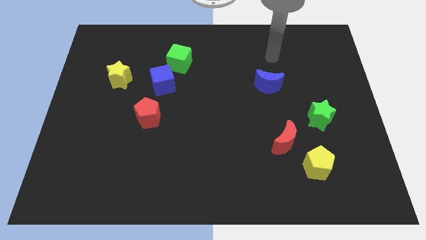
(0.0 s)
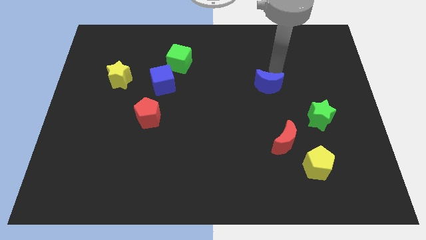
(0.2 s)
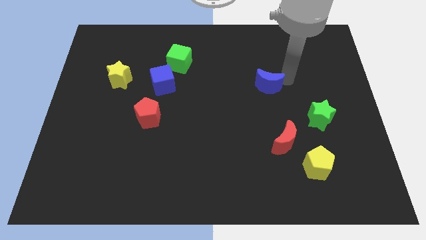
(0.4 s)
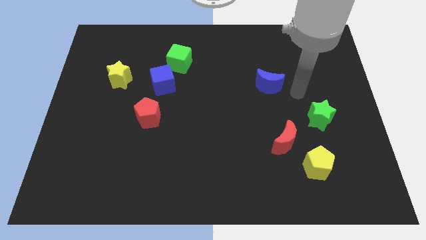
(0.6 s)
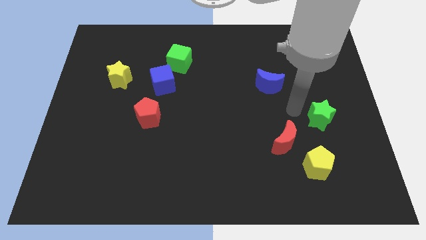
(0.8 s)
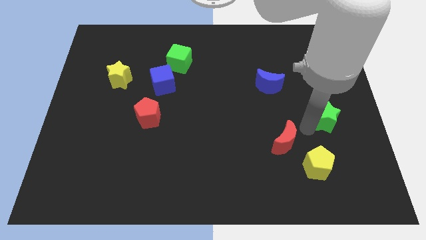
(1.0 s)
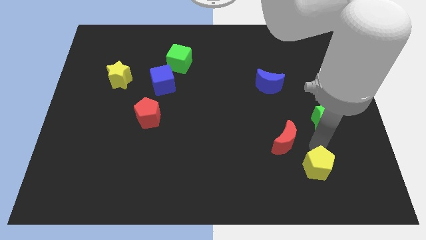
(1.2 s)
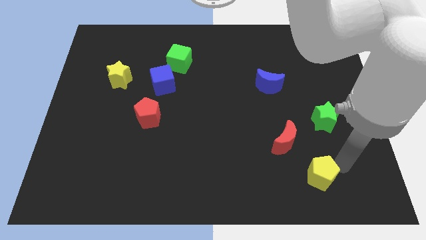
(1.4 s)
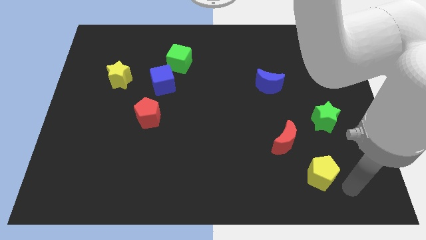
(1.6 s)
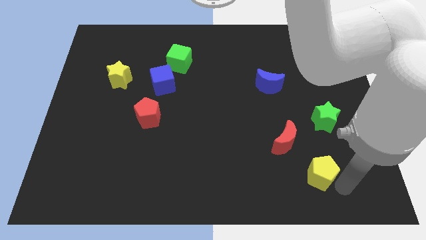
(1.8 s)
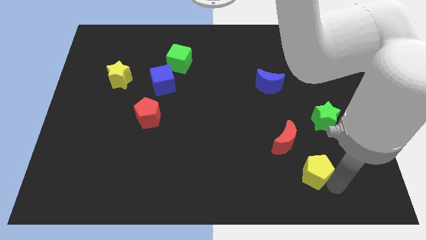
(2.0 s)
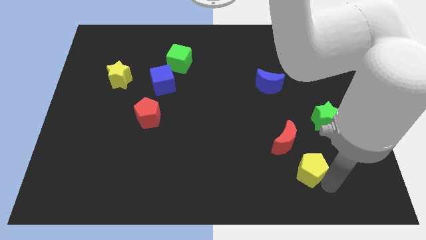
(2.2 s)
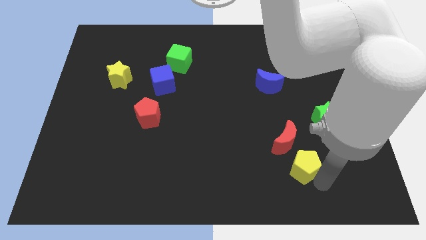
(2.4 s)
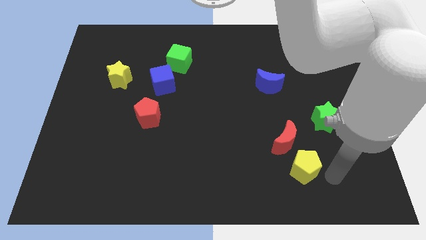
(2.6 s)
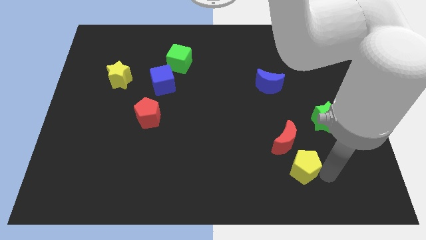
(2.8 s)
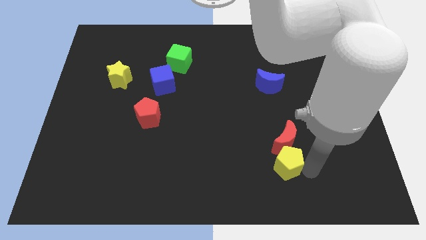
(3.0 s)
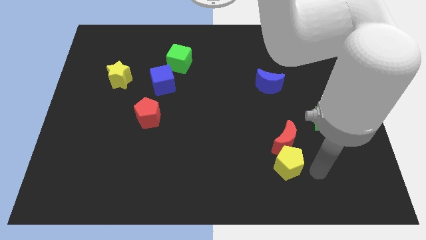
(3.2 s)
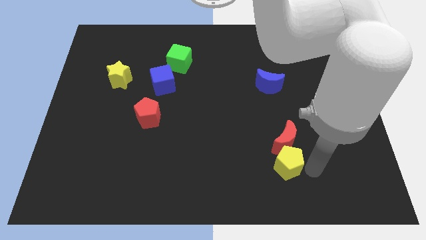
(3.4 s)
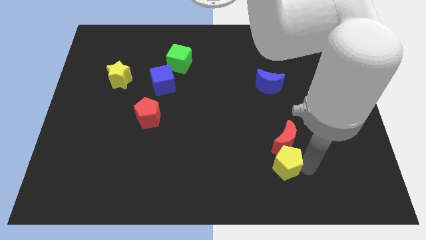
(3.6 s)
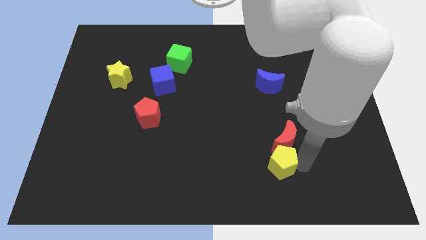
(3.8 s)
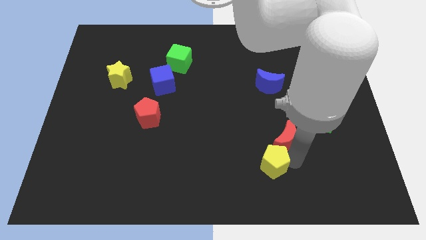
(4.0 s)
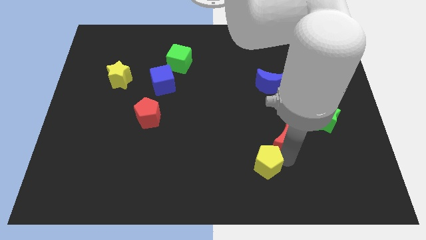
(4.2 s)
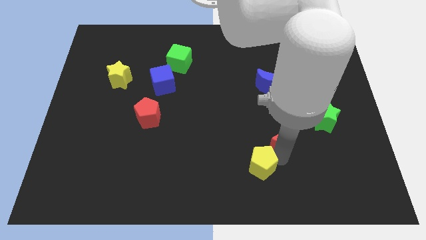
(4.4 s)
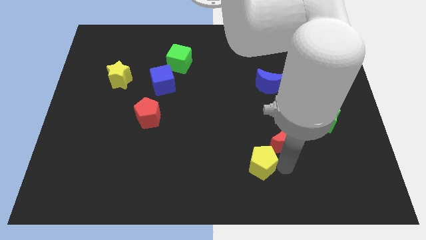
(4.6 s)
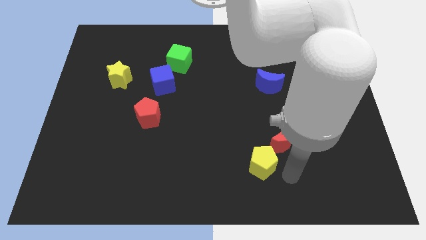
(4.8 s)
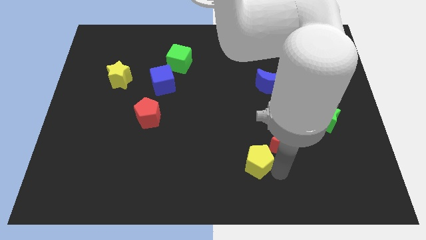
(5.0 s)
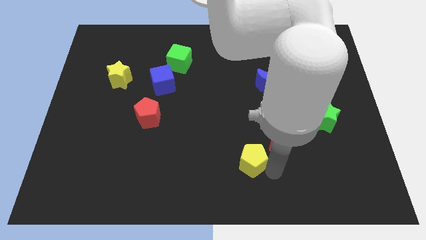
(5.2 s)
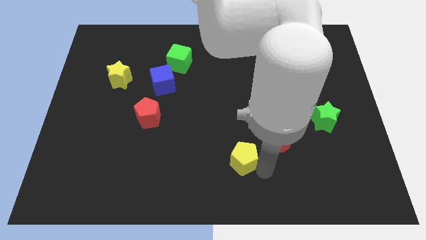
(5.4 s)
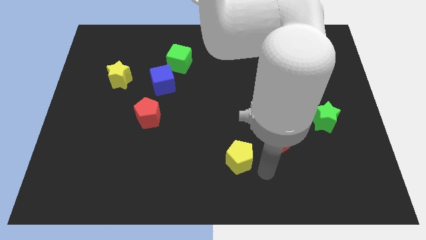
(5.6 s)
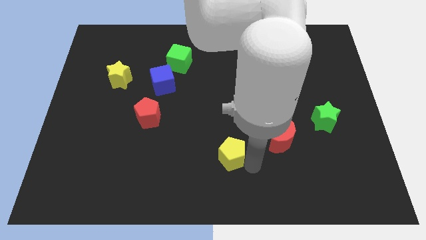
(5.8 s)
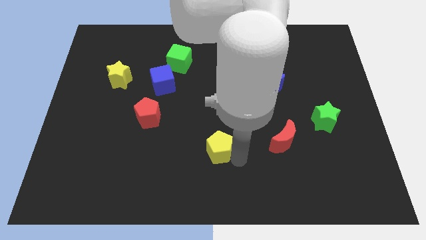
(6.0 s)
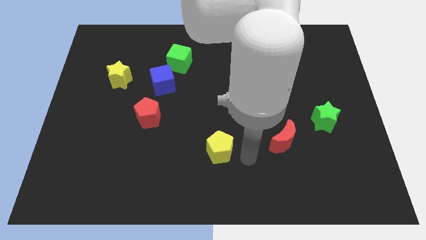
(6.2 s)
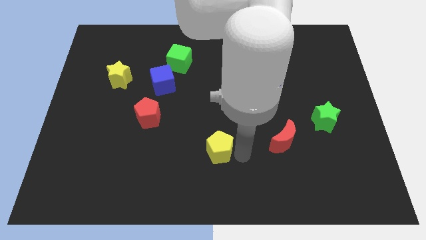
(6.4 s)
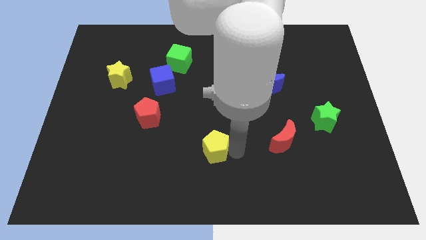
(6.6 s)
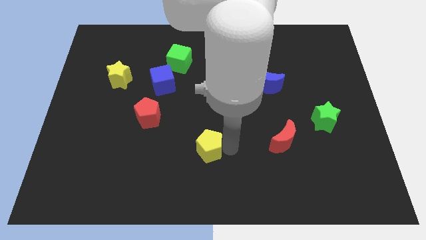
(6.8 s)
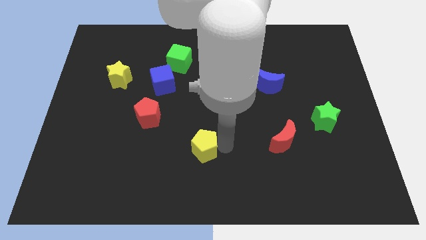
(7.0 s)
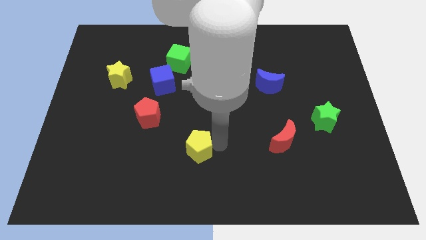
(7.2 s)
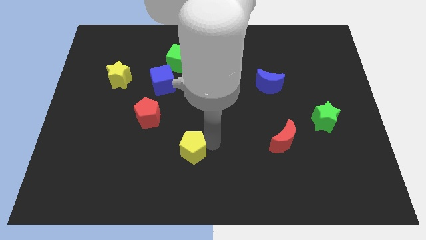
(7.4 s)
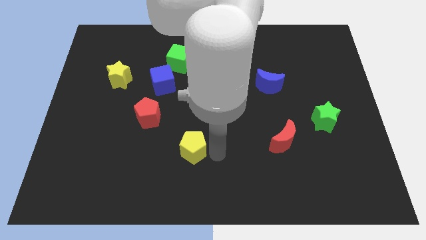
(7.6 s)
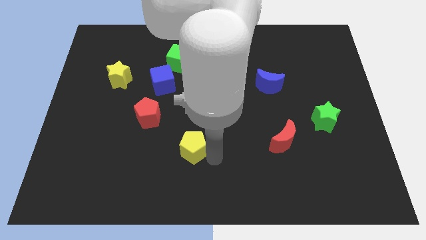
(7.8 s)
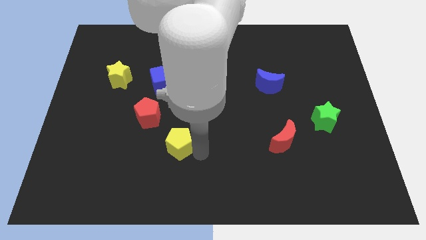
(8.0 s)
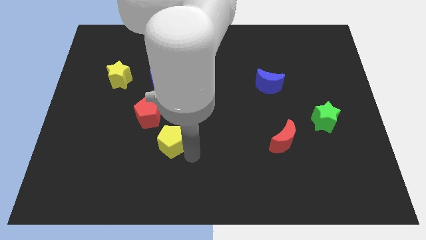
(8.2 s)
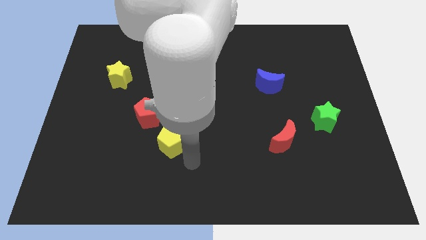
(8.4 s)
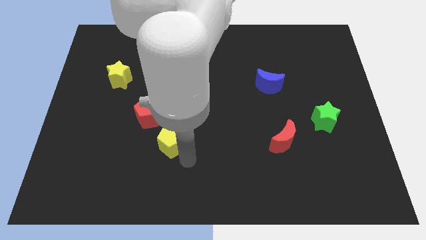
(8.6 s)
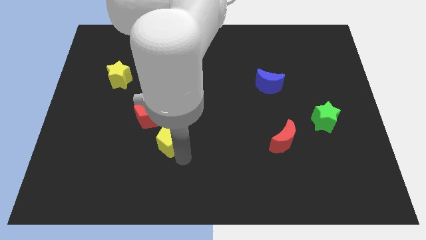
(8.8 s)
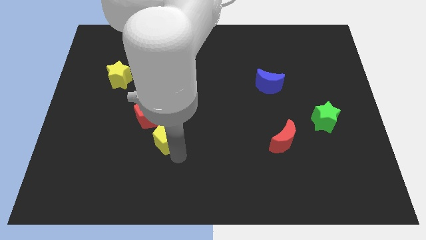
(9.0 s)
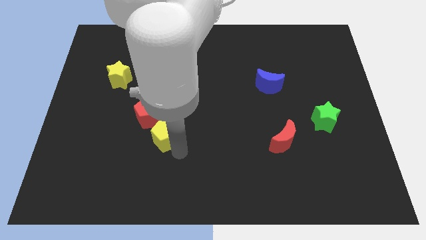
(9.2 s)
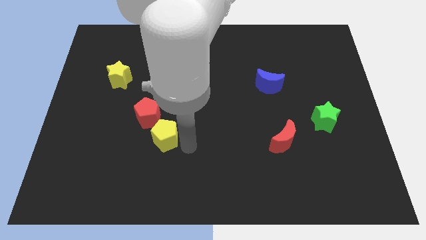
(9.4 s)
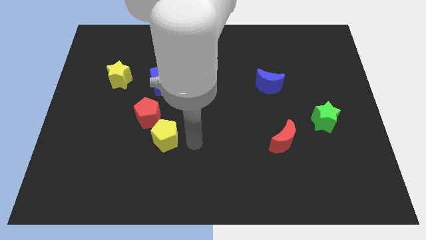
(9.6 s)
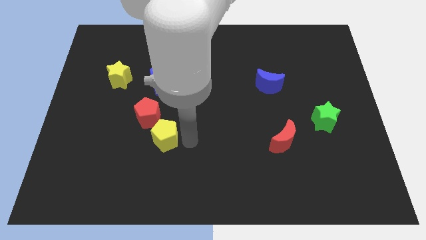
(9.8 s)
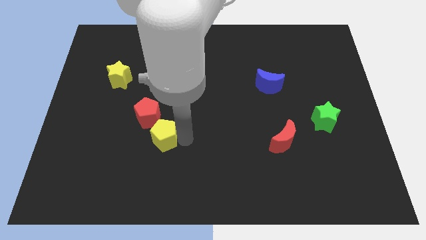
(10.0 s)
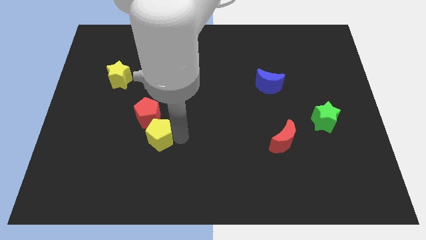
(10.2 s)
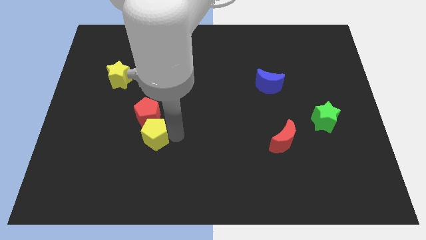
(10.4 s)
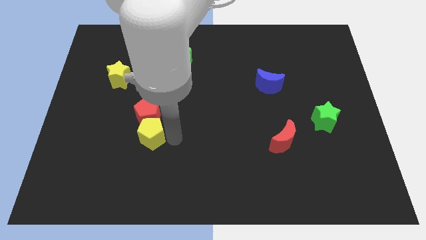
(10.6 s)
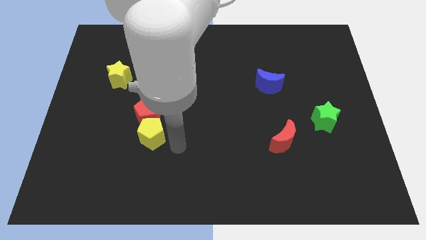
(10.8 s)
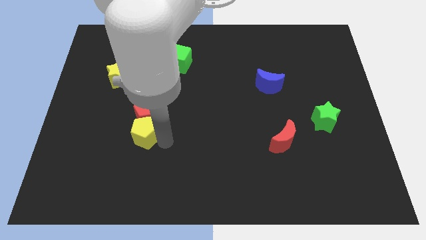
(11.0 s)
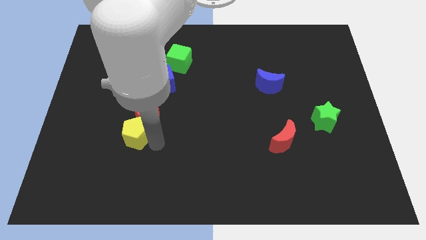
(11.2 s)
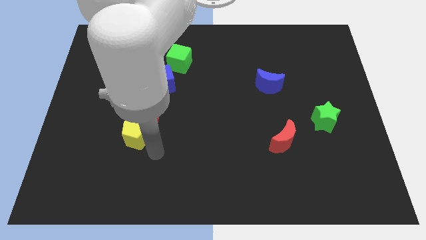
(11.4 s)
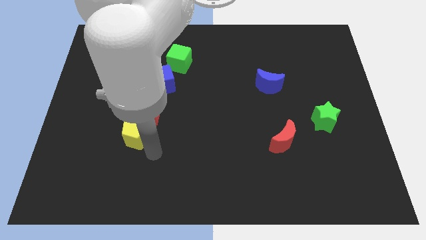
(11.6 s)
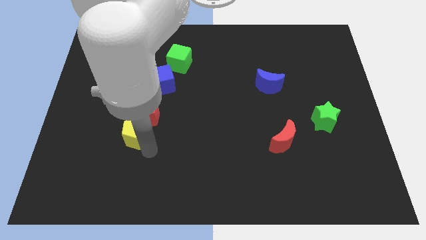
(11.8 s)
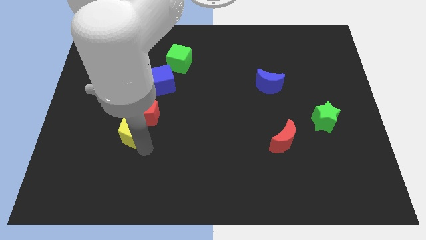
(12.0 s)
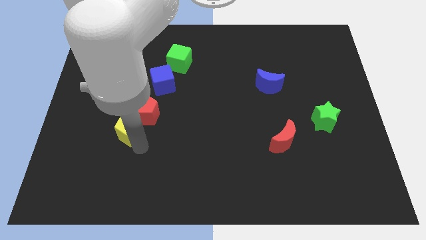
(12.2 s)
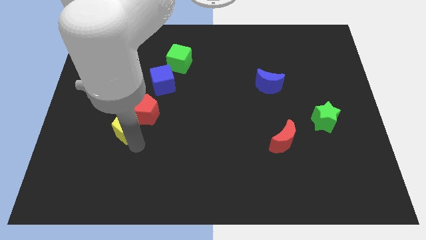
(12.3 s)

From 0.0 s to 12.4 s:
push the yellow pentagon left of the red pentagon

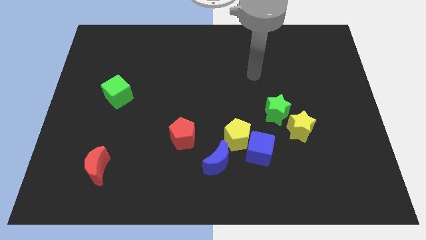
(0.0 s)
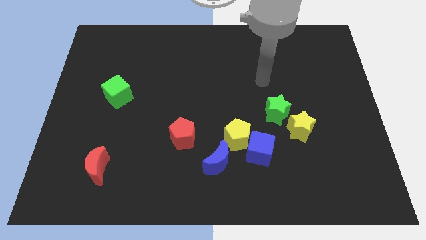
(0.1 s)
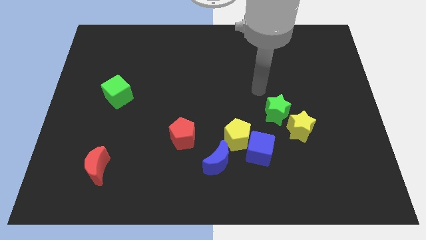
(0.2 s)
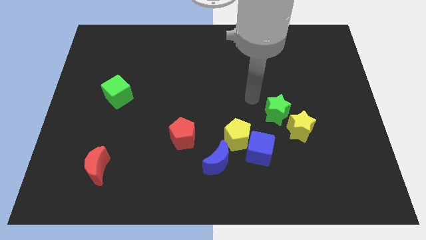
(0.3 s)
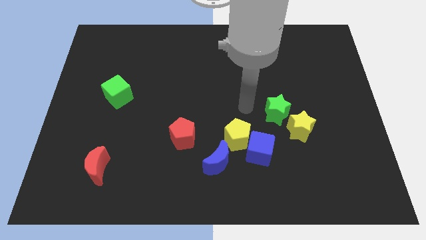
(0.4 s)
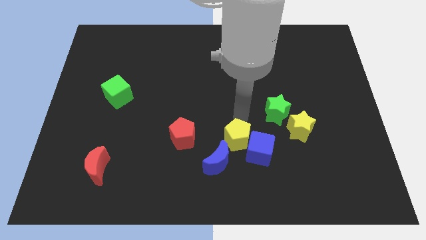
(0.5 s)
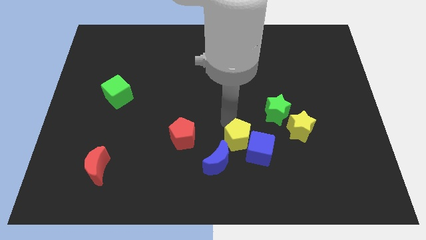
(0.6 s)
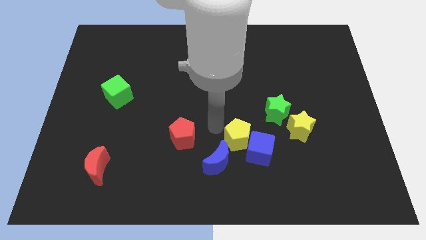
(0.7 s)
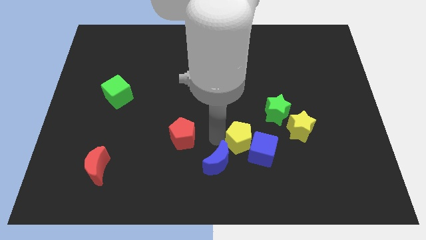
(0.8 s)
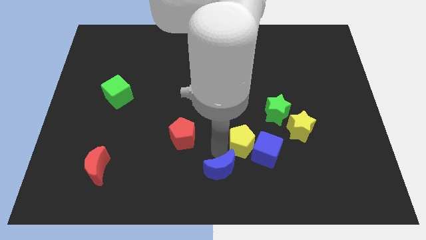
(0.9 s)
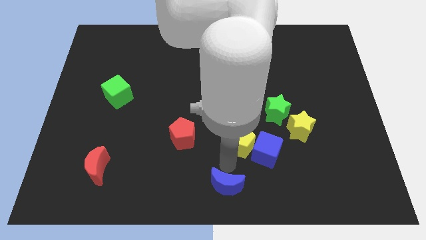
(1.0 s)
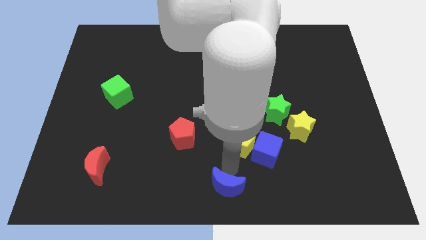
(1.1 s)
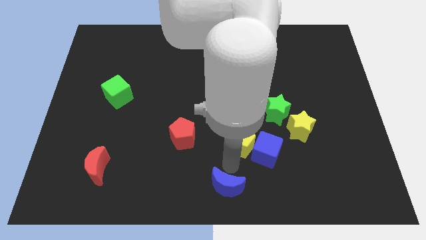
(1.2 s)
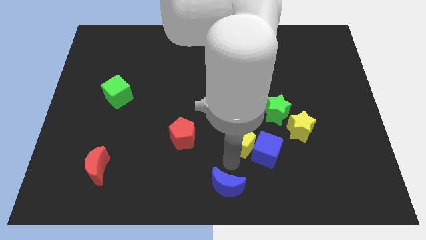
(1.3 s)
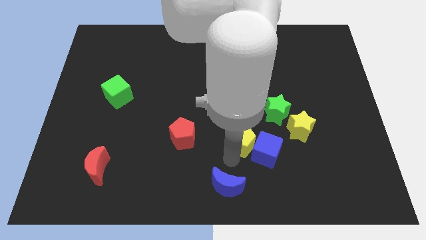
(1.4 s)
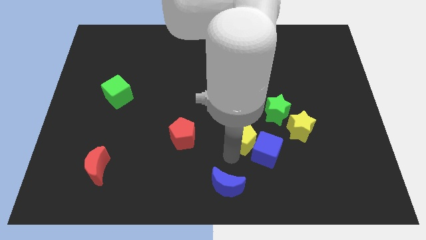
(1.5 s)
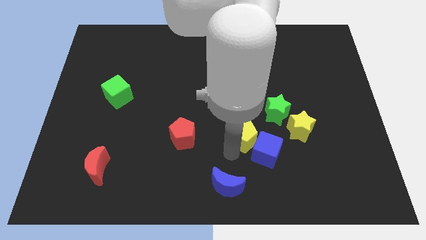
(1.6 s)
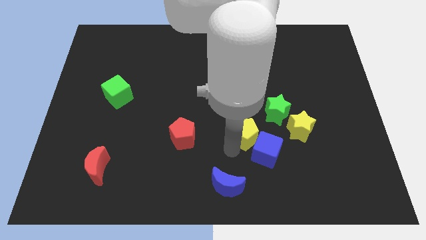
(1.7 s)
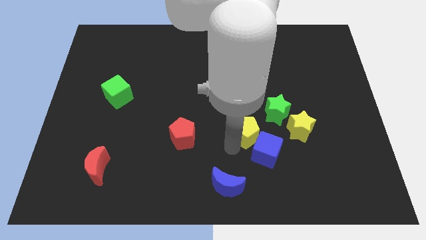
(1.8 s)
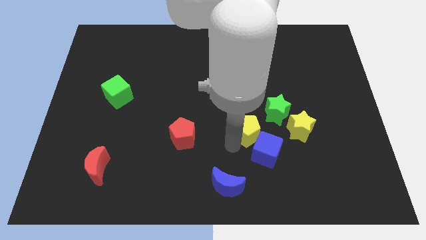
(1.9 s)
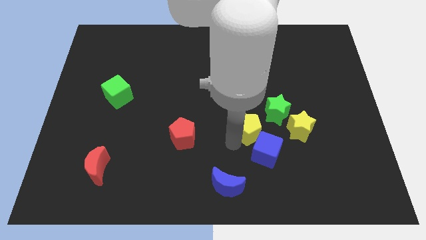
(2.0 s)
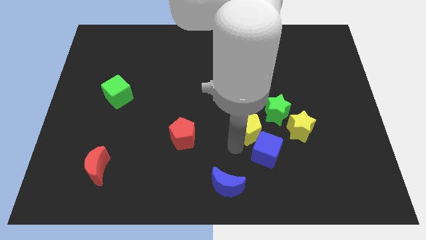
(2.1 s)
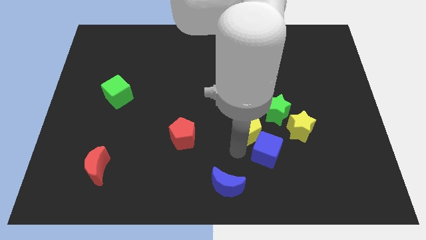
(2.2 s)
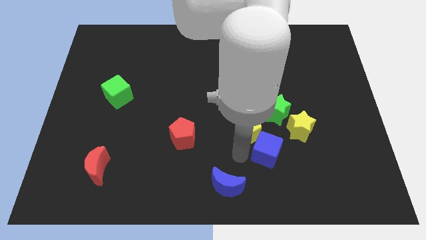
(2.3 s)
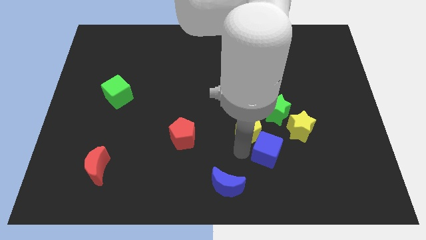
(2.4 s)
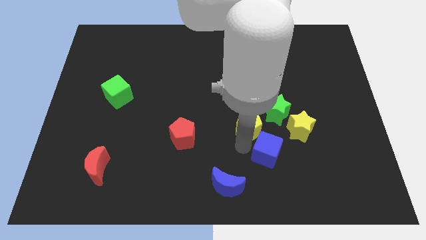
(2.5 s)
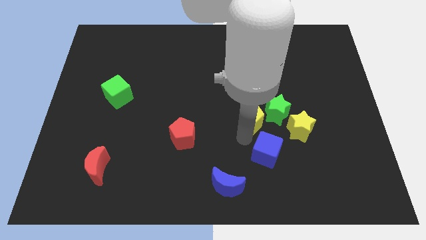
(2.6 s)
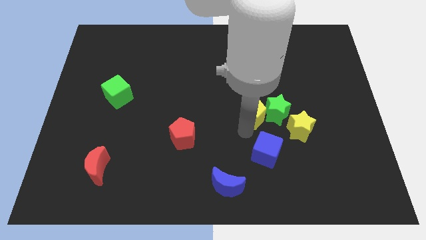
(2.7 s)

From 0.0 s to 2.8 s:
move the yellow pentagon to the top left side of the yellow star
